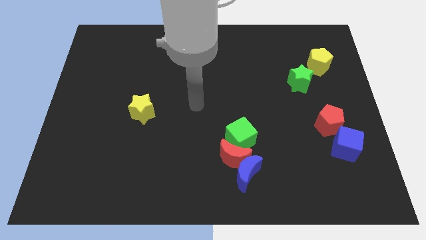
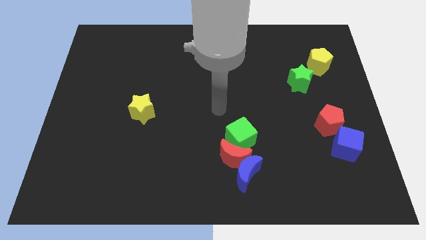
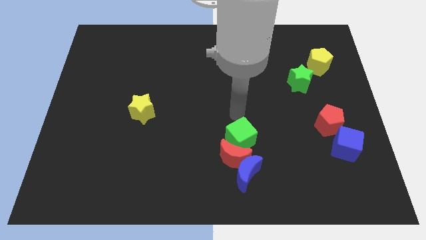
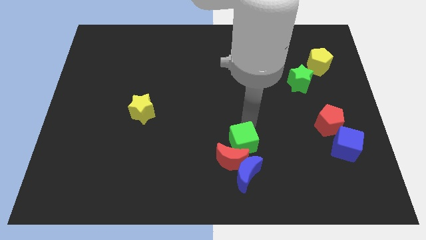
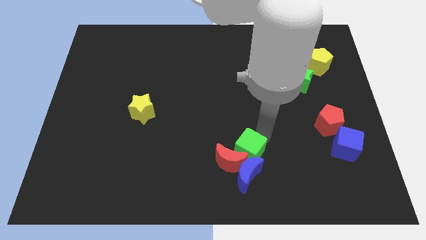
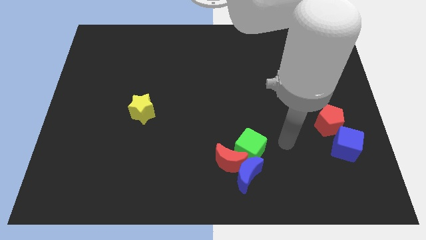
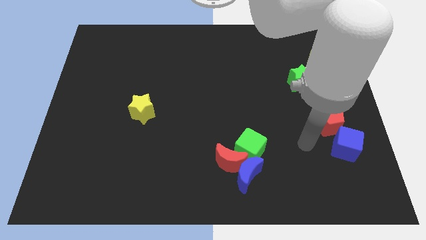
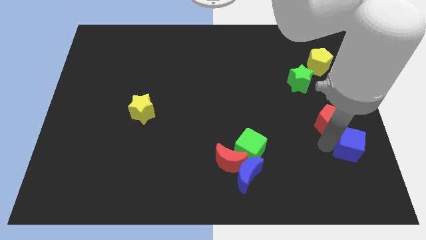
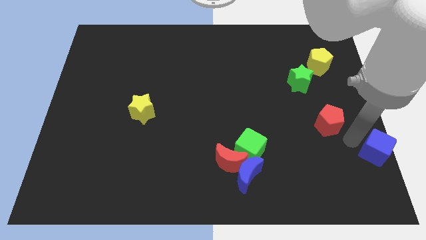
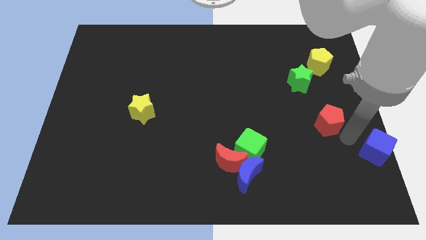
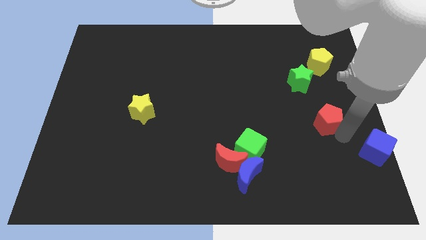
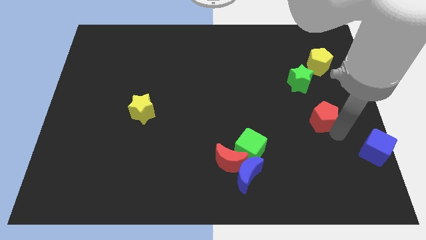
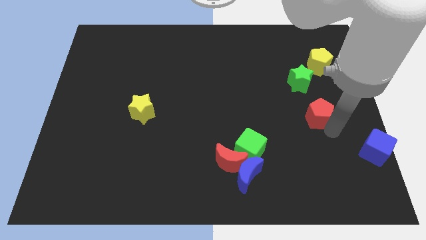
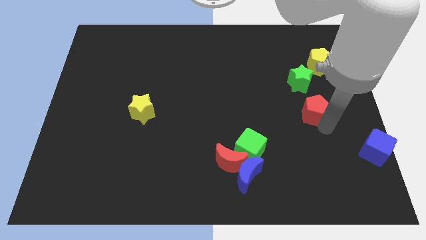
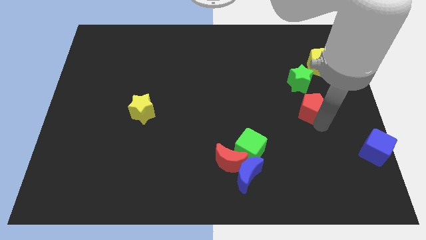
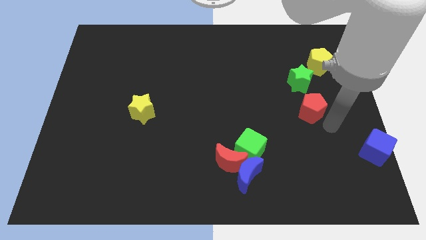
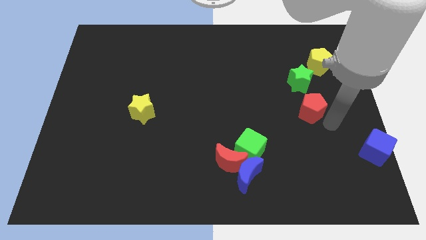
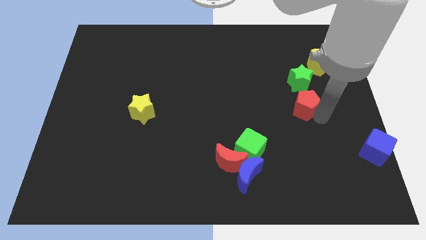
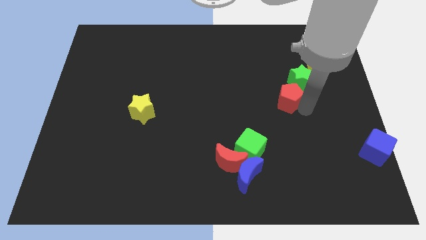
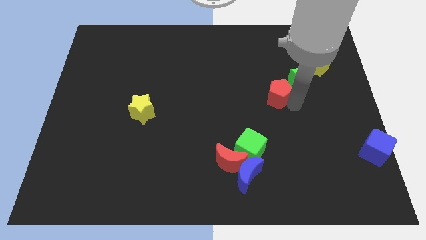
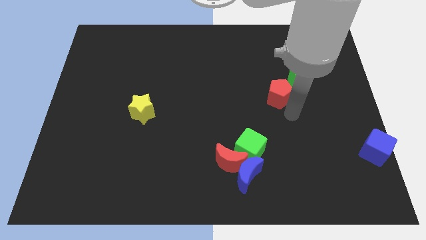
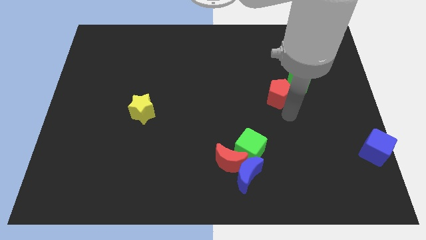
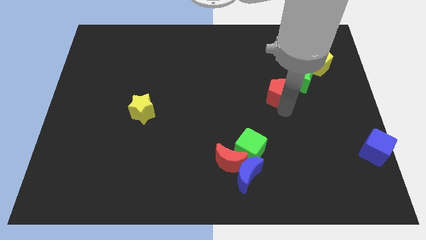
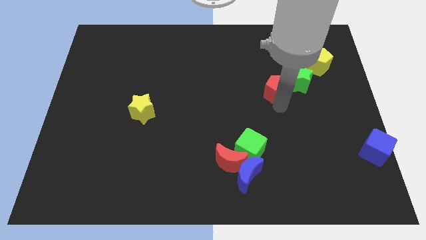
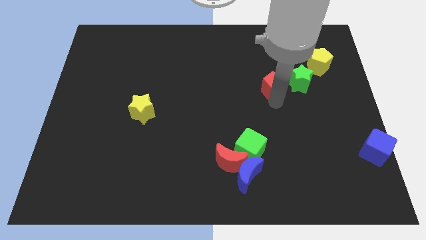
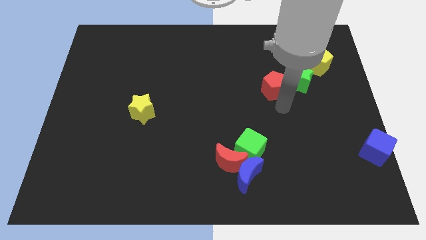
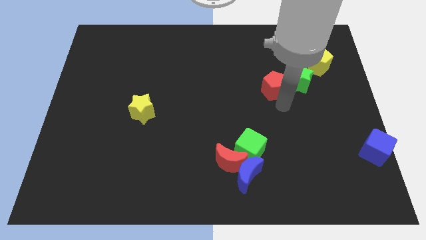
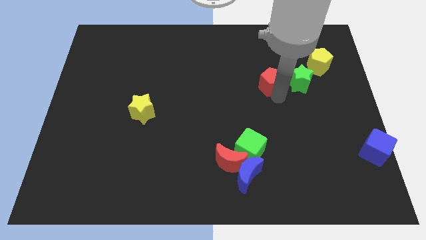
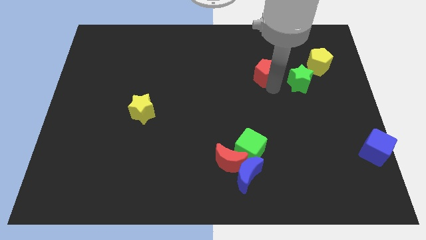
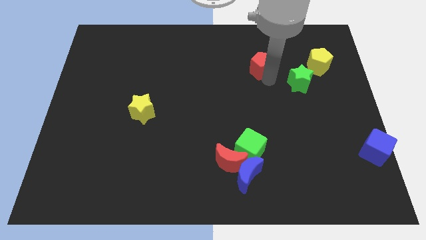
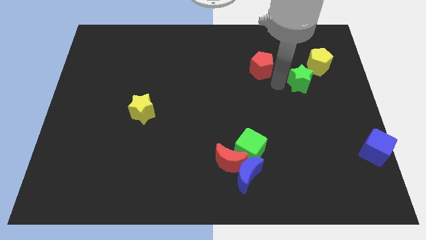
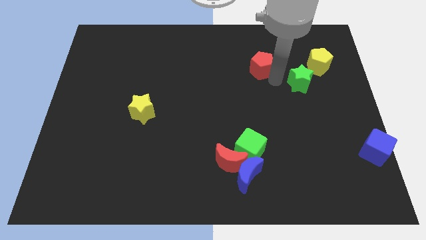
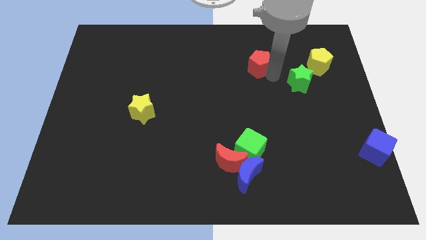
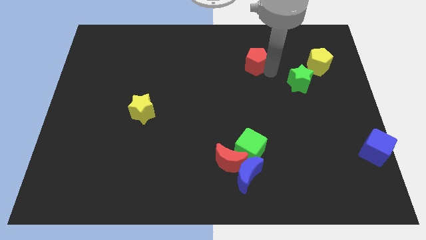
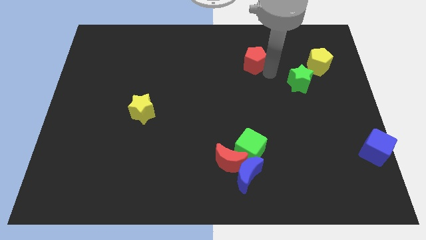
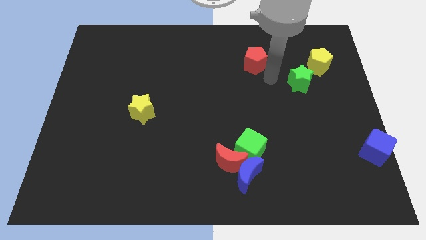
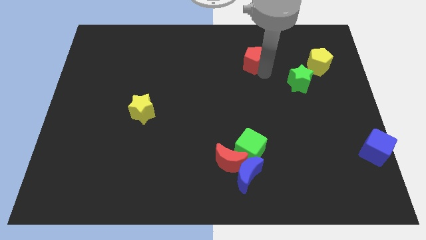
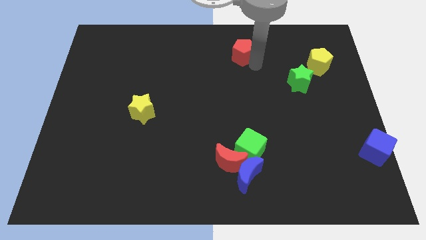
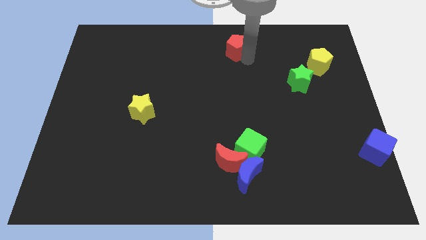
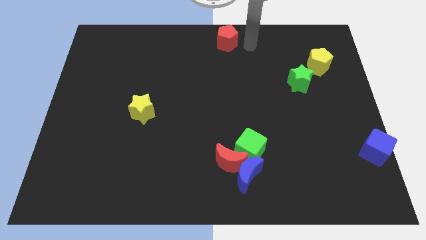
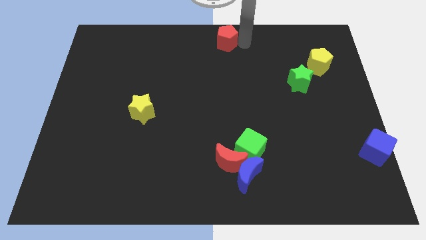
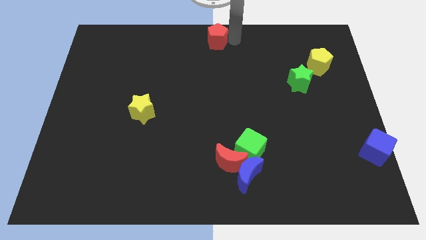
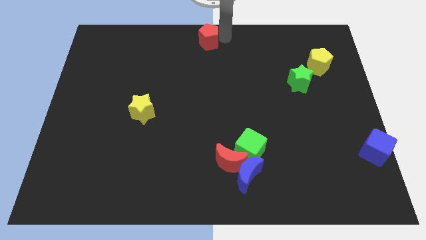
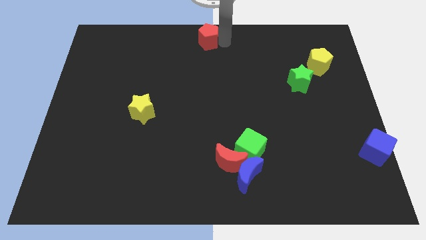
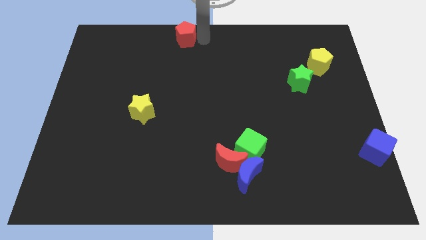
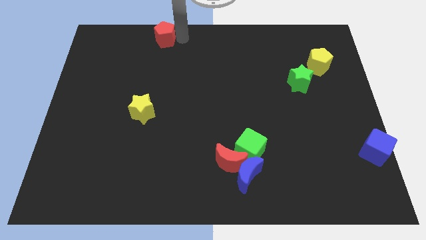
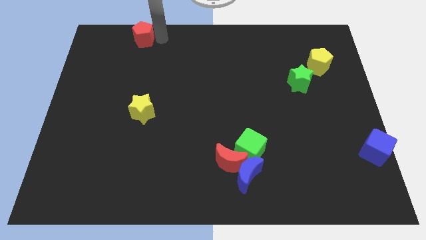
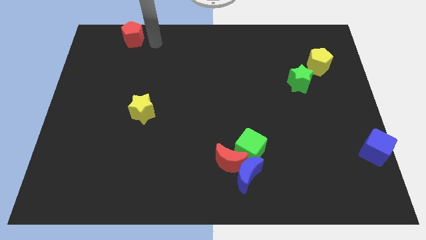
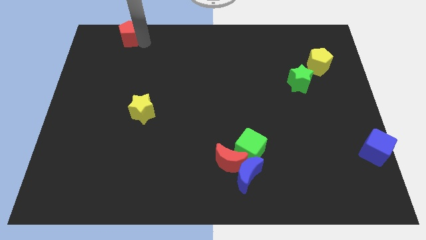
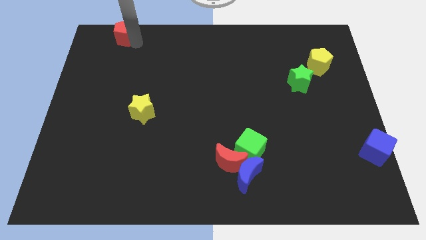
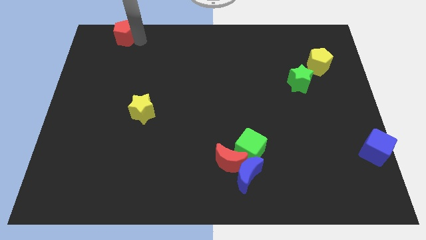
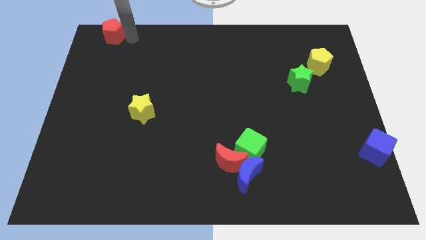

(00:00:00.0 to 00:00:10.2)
put the red pentagon to the top left of the board

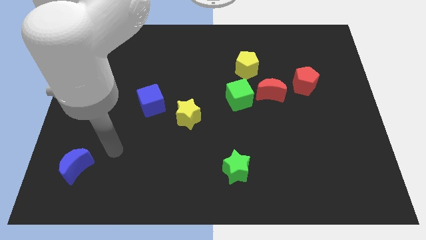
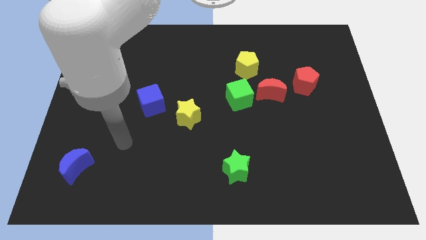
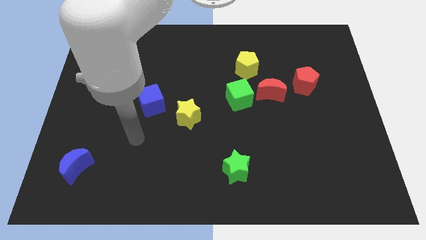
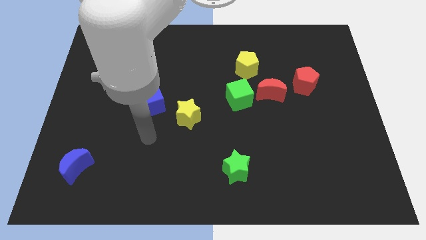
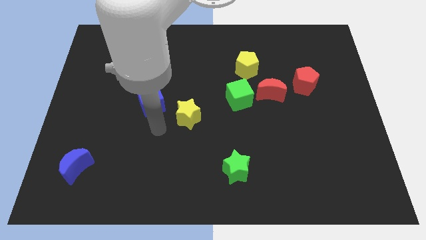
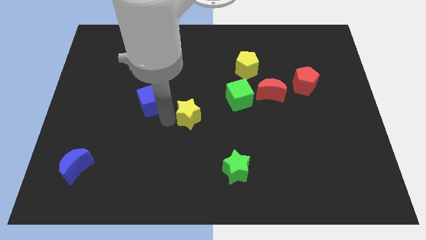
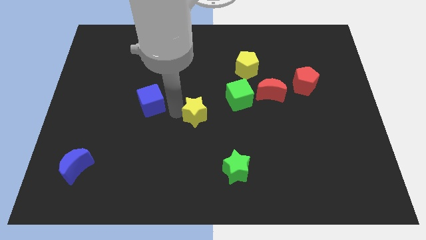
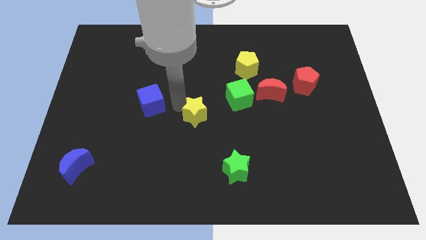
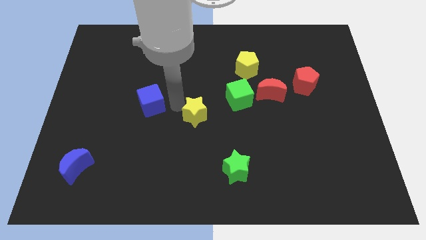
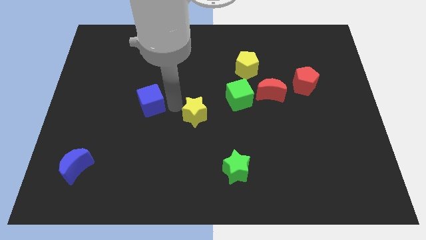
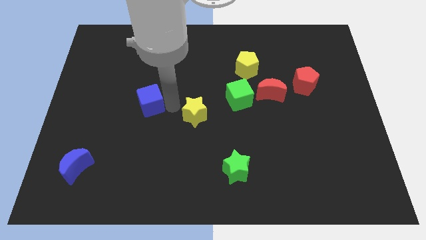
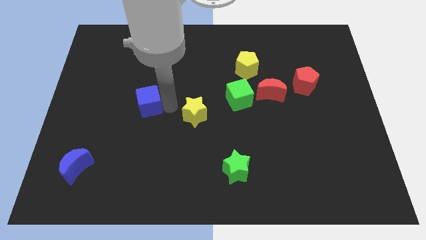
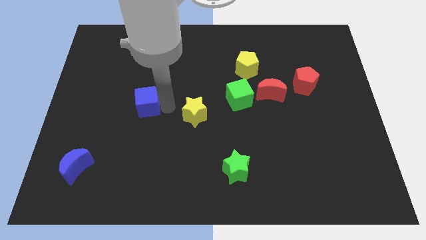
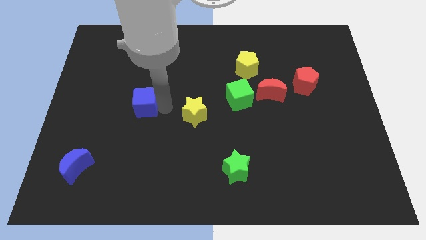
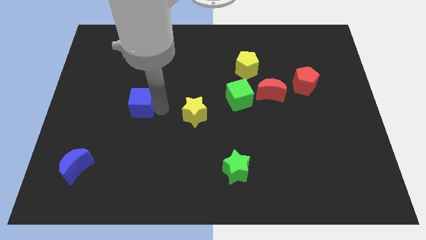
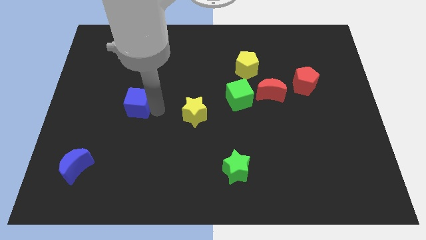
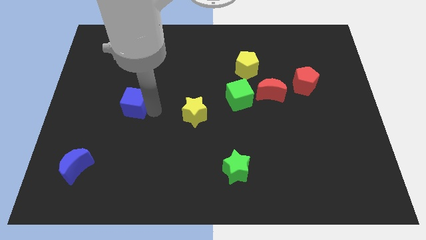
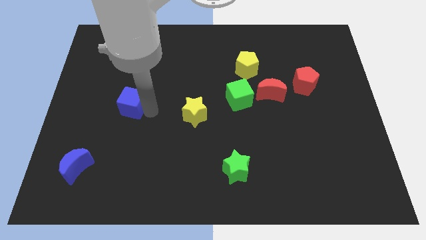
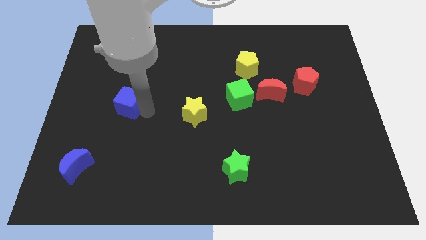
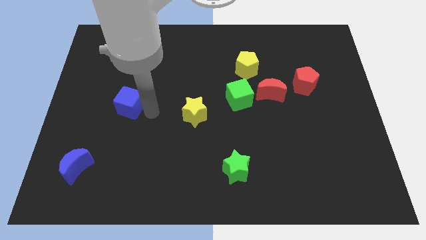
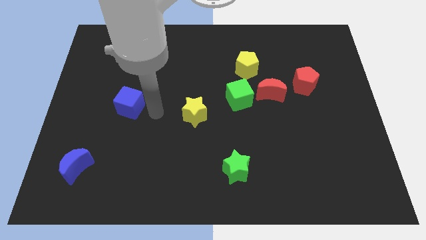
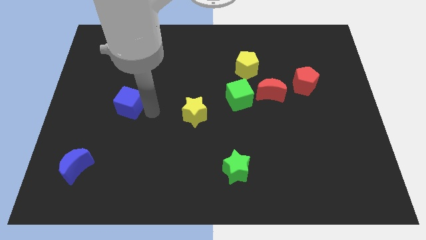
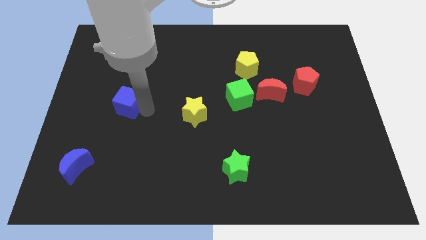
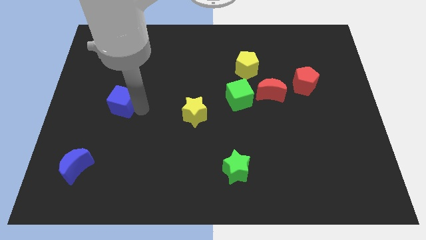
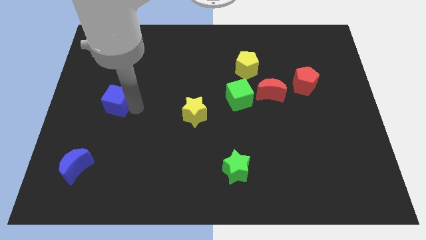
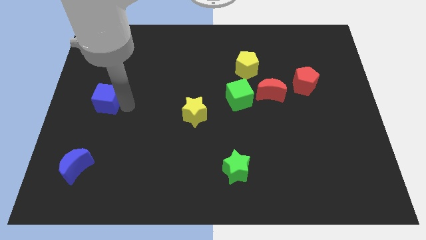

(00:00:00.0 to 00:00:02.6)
slide the blue cube to the left side of the board
